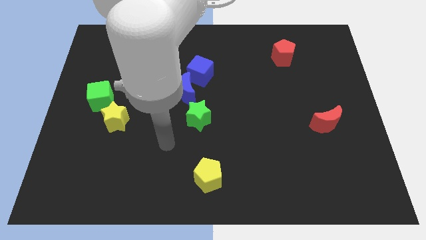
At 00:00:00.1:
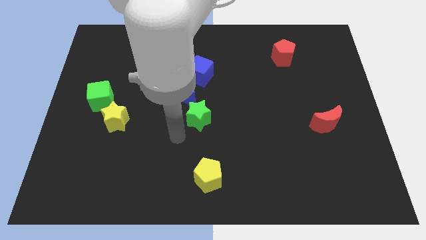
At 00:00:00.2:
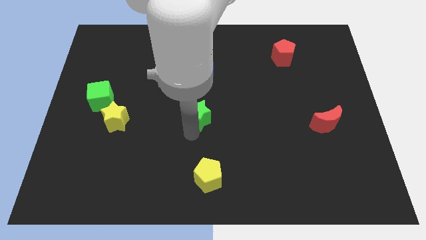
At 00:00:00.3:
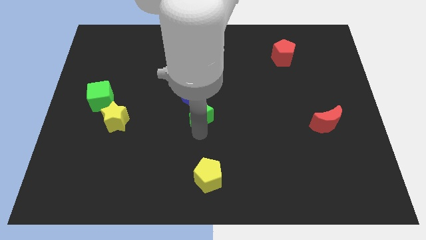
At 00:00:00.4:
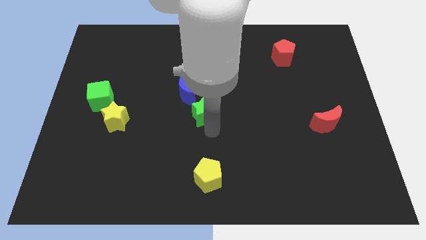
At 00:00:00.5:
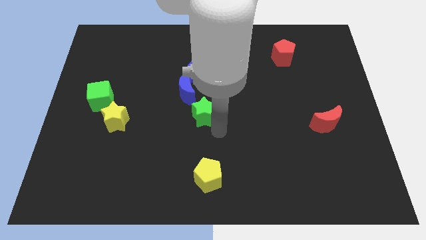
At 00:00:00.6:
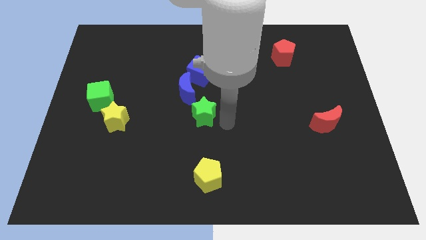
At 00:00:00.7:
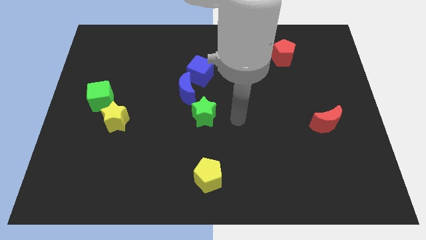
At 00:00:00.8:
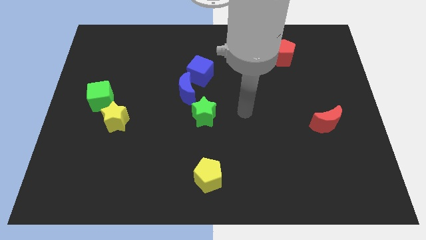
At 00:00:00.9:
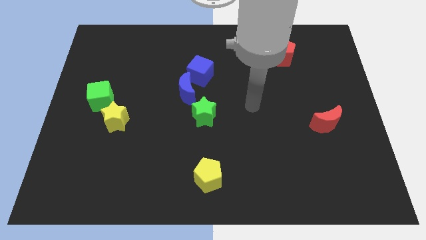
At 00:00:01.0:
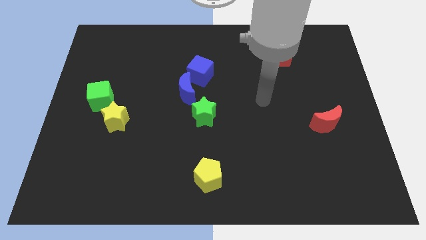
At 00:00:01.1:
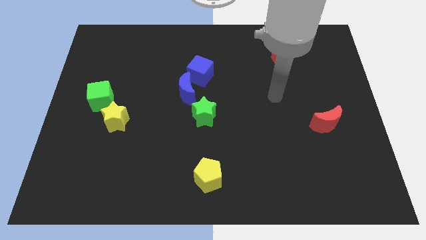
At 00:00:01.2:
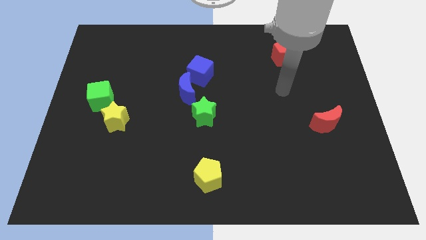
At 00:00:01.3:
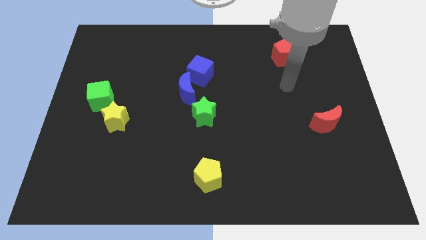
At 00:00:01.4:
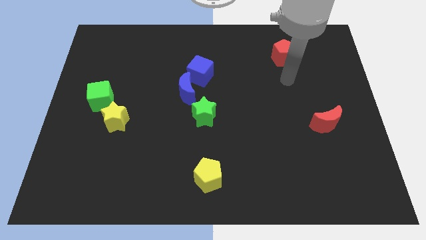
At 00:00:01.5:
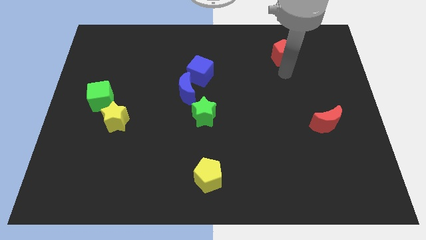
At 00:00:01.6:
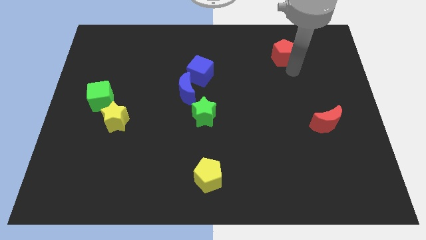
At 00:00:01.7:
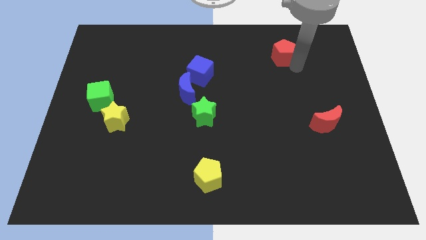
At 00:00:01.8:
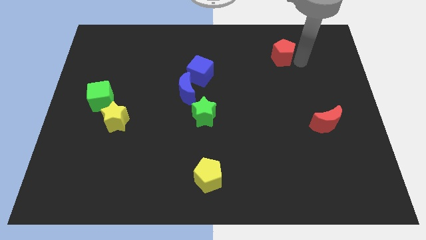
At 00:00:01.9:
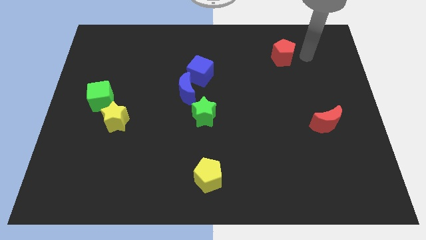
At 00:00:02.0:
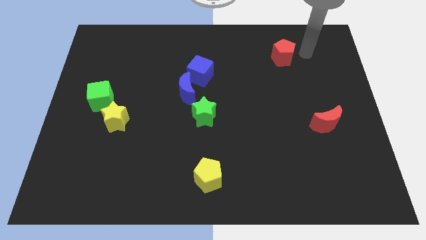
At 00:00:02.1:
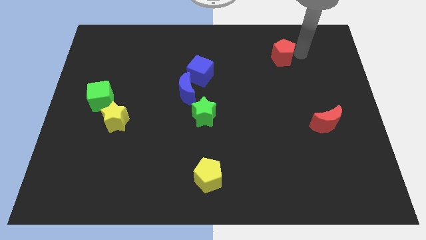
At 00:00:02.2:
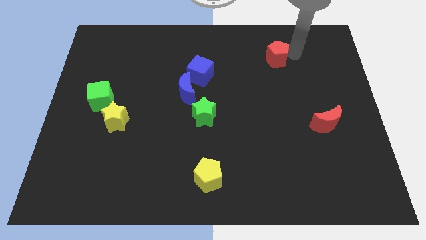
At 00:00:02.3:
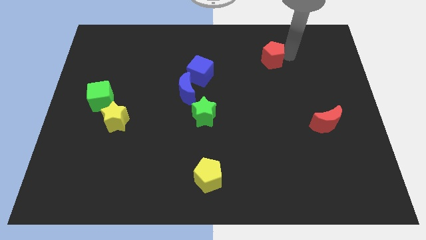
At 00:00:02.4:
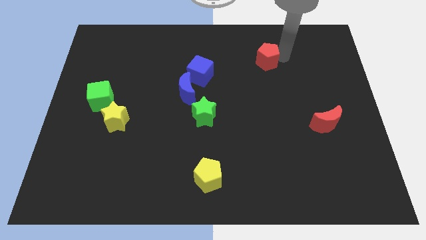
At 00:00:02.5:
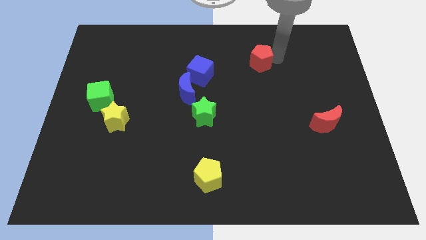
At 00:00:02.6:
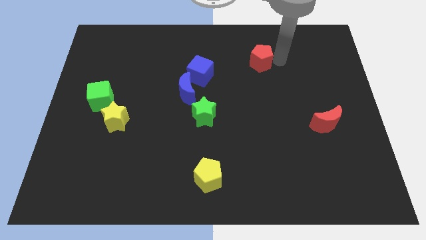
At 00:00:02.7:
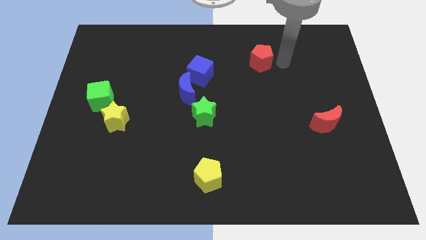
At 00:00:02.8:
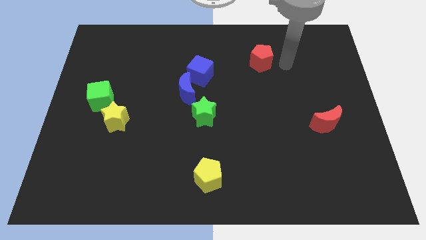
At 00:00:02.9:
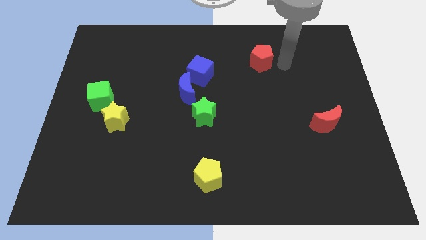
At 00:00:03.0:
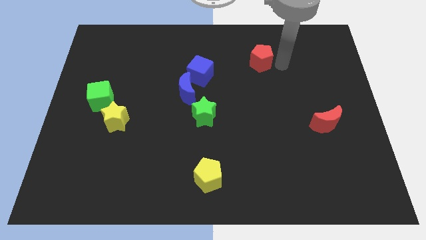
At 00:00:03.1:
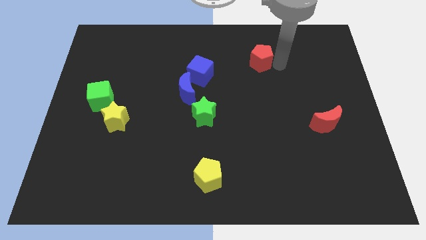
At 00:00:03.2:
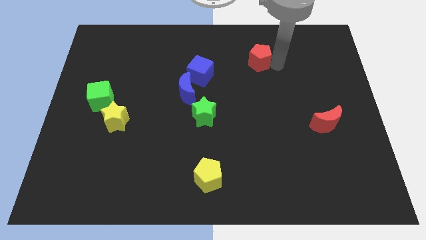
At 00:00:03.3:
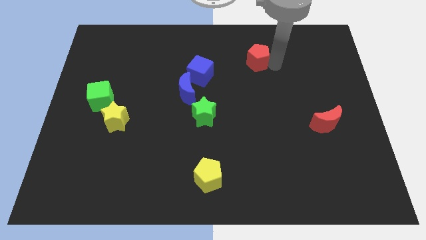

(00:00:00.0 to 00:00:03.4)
slightly move the red pentagon left

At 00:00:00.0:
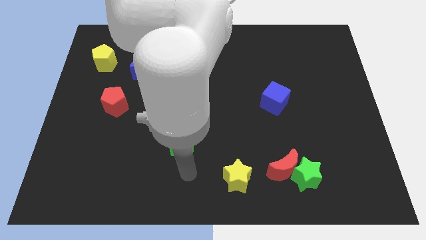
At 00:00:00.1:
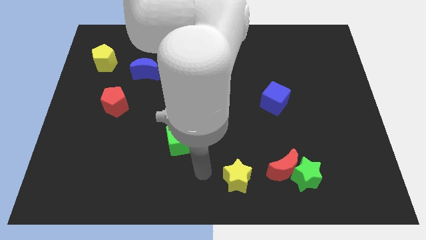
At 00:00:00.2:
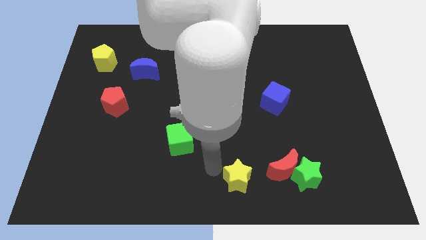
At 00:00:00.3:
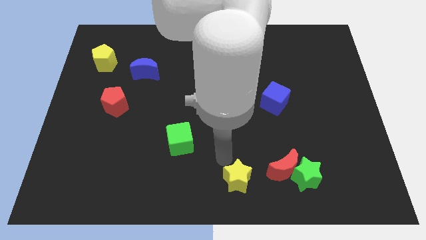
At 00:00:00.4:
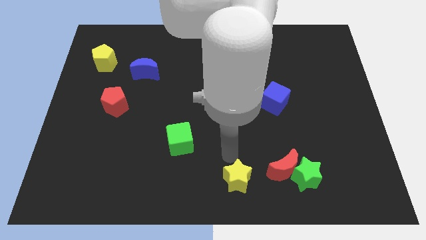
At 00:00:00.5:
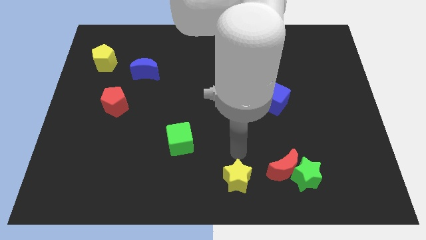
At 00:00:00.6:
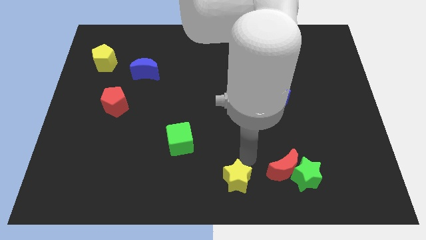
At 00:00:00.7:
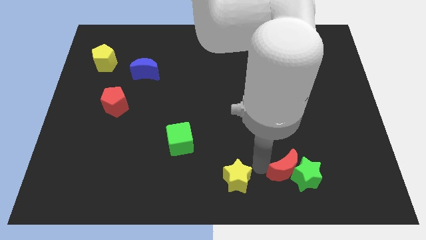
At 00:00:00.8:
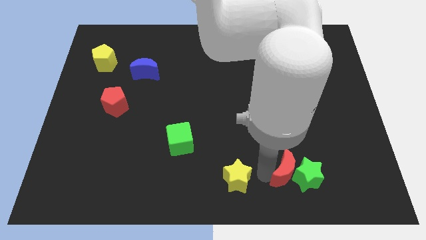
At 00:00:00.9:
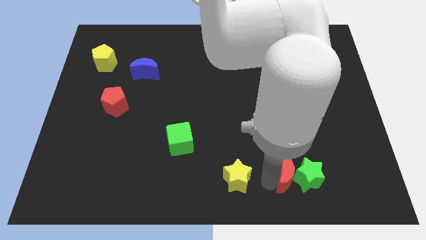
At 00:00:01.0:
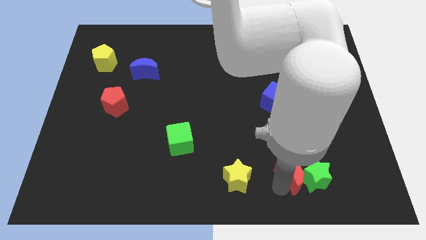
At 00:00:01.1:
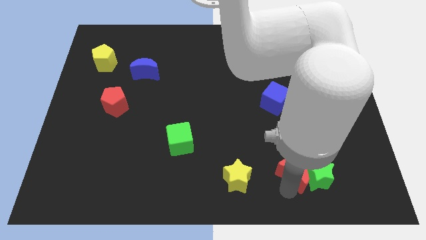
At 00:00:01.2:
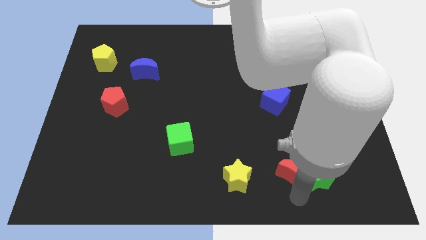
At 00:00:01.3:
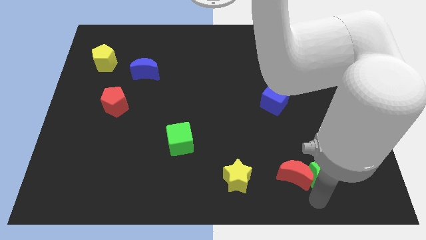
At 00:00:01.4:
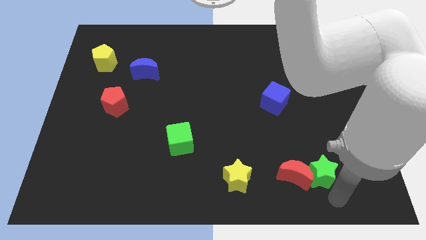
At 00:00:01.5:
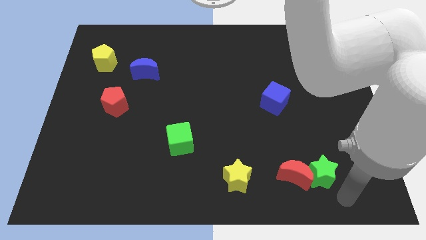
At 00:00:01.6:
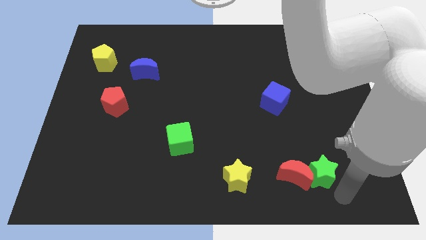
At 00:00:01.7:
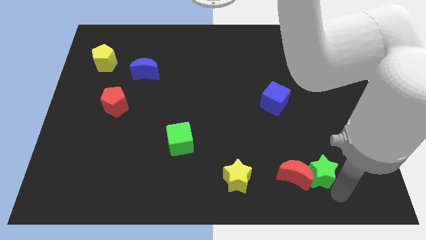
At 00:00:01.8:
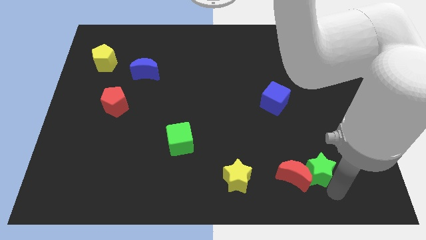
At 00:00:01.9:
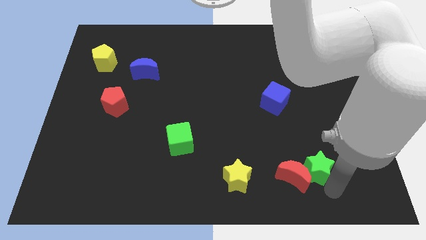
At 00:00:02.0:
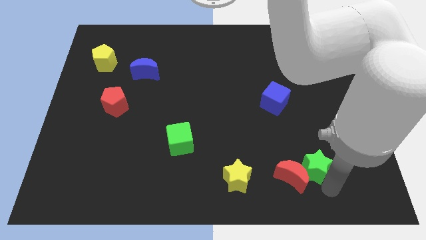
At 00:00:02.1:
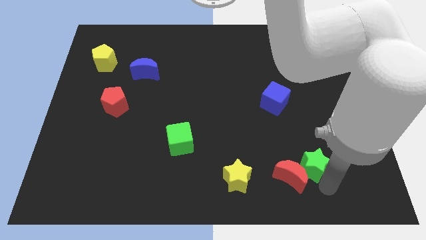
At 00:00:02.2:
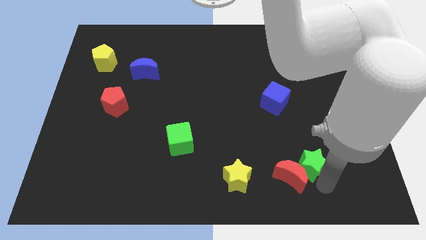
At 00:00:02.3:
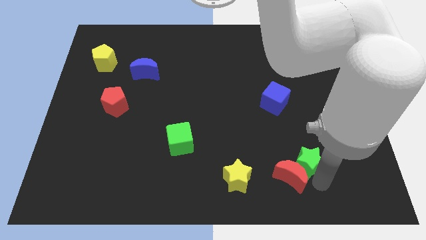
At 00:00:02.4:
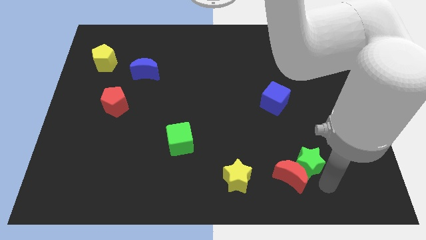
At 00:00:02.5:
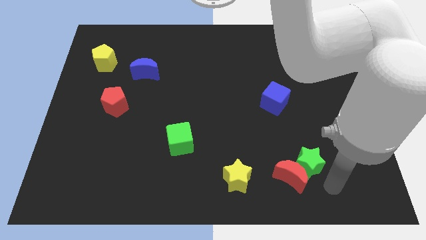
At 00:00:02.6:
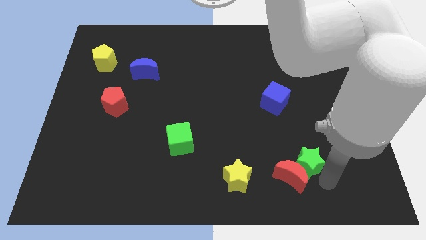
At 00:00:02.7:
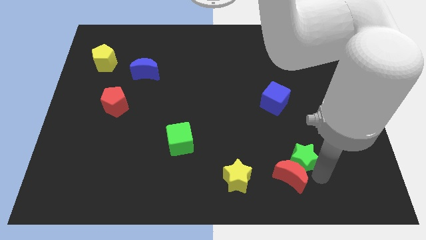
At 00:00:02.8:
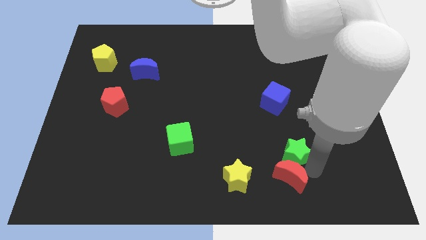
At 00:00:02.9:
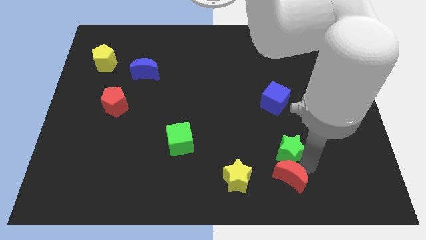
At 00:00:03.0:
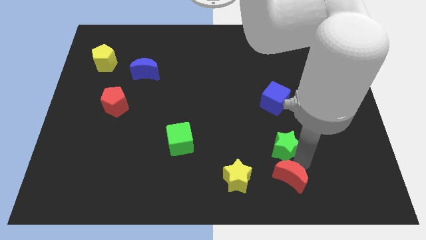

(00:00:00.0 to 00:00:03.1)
slightly move the green star upwards and to the left diagonally

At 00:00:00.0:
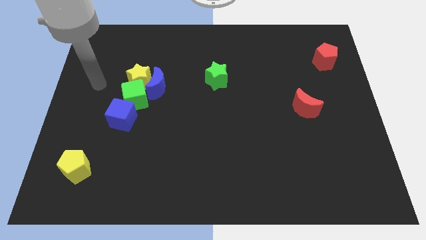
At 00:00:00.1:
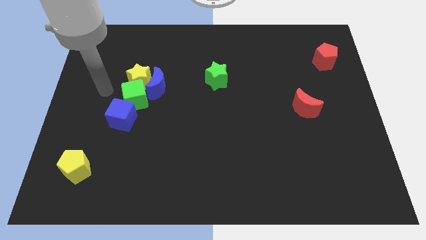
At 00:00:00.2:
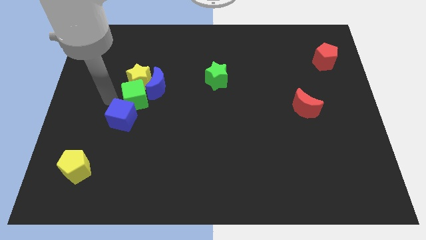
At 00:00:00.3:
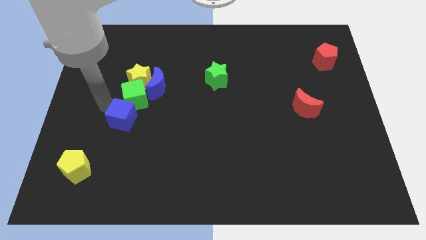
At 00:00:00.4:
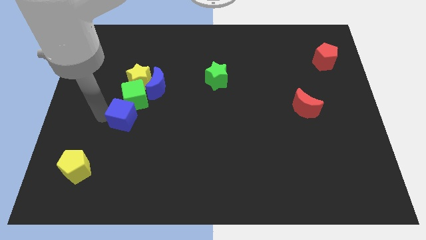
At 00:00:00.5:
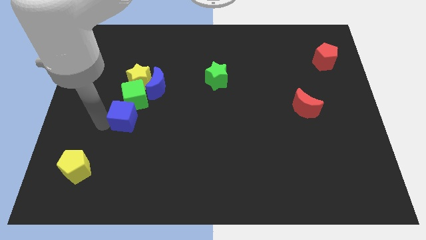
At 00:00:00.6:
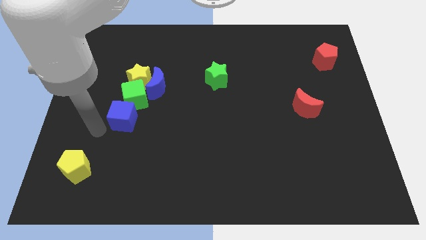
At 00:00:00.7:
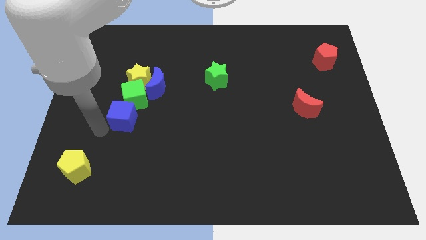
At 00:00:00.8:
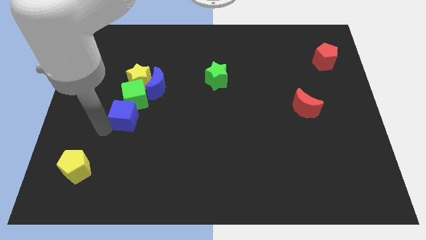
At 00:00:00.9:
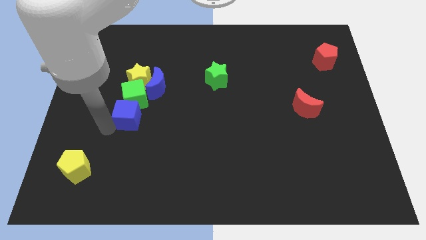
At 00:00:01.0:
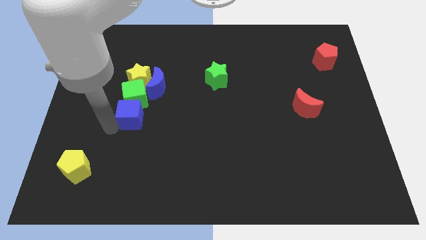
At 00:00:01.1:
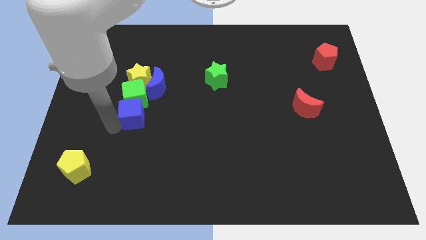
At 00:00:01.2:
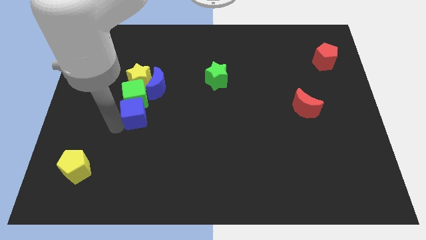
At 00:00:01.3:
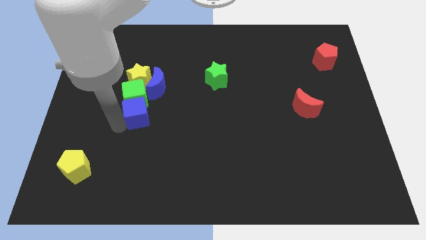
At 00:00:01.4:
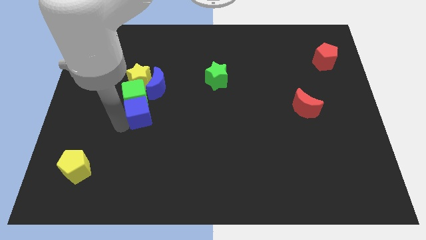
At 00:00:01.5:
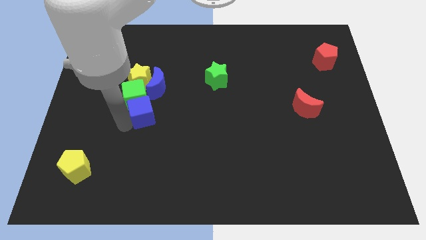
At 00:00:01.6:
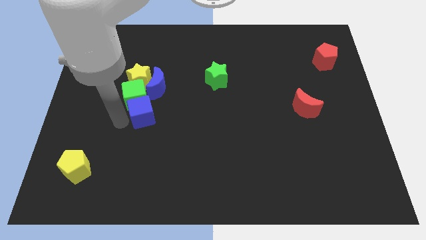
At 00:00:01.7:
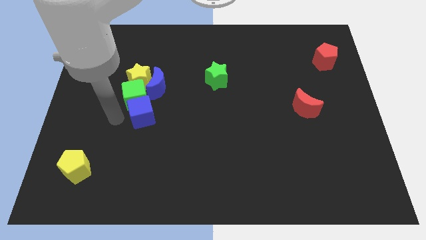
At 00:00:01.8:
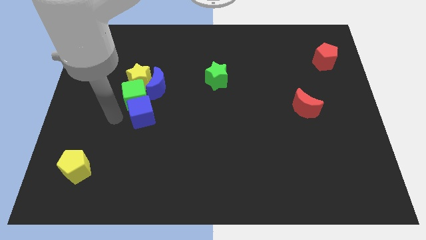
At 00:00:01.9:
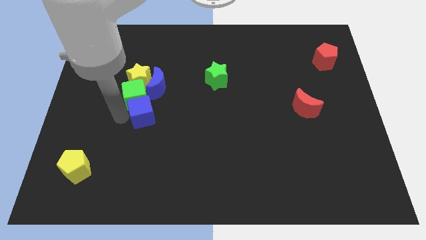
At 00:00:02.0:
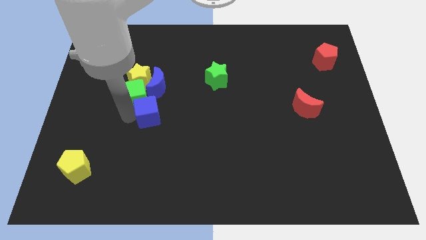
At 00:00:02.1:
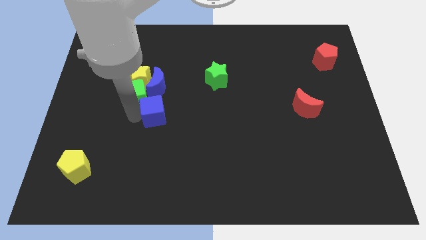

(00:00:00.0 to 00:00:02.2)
slide the blue cube somewhat right
